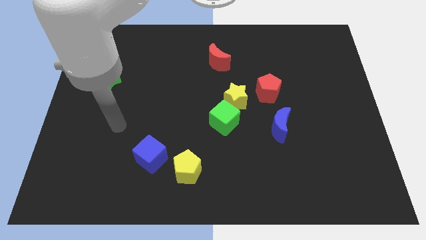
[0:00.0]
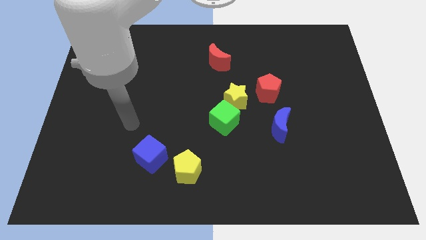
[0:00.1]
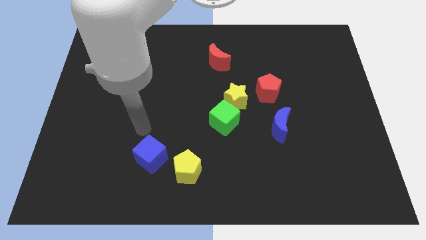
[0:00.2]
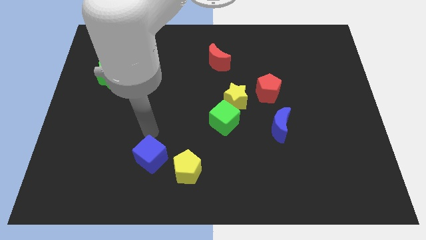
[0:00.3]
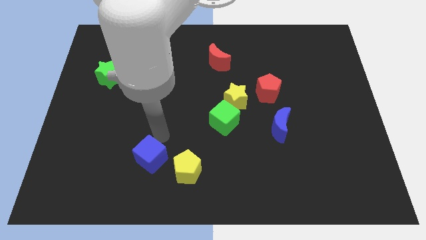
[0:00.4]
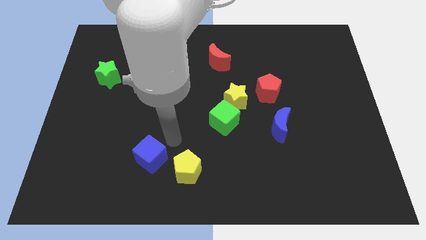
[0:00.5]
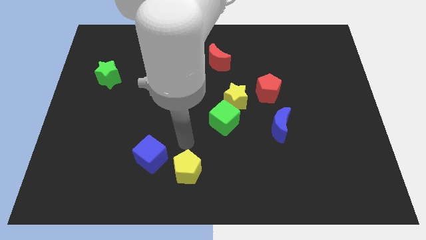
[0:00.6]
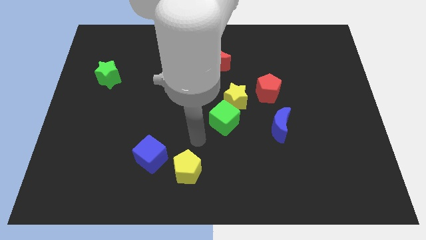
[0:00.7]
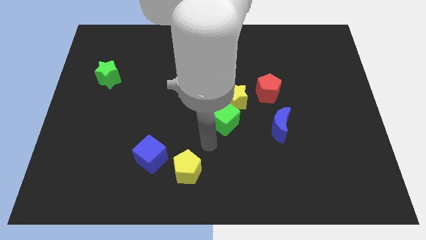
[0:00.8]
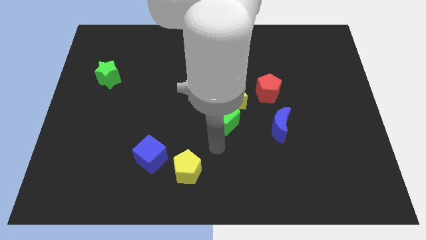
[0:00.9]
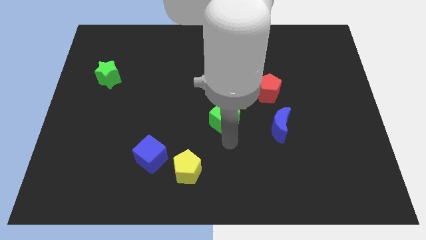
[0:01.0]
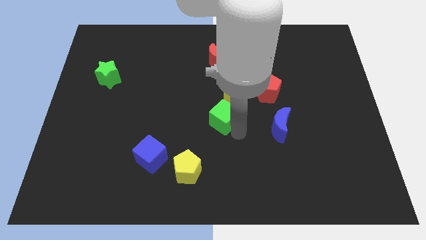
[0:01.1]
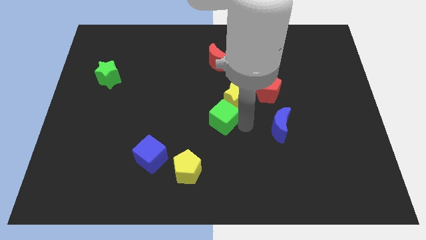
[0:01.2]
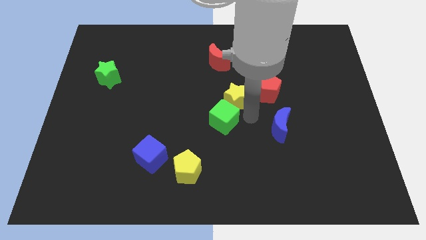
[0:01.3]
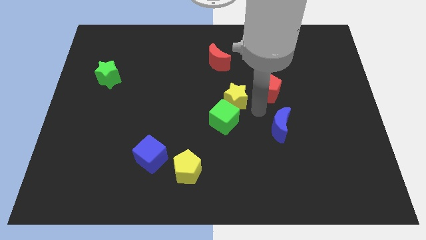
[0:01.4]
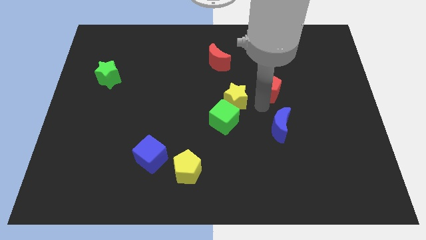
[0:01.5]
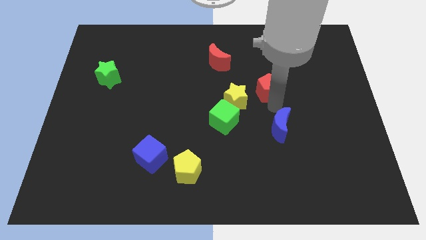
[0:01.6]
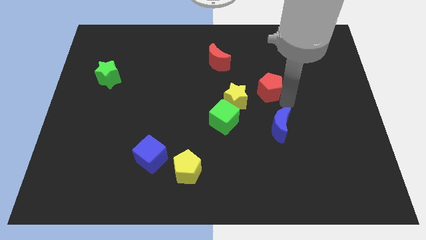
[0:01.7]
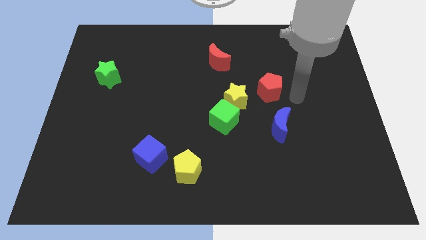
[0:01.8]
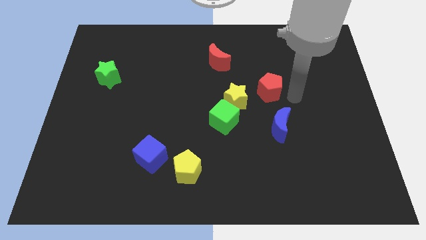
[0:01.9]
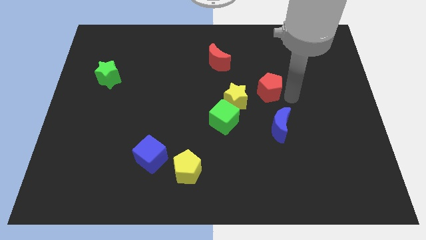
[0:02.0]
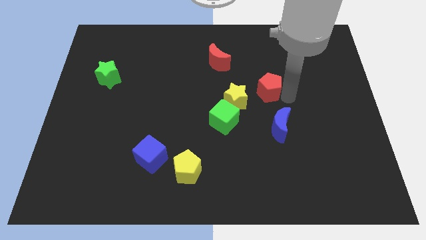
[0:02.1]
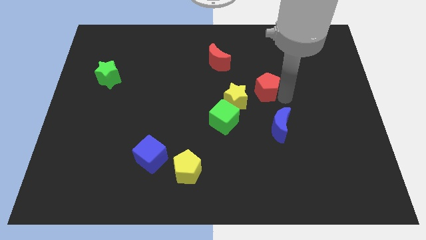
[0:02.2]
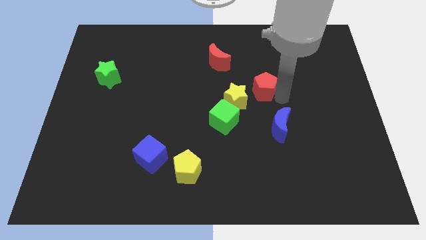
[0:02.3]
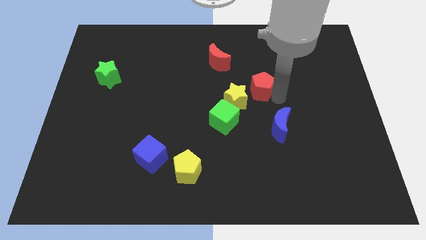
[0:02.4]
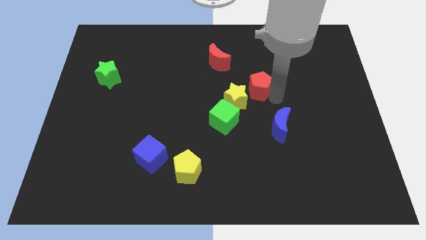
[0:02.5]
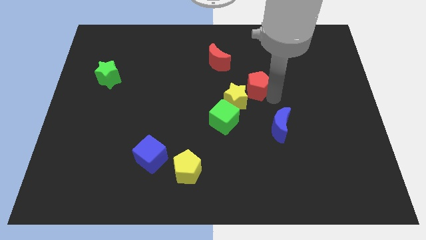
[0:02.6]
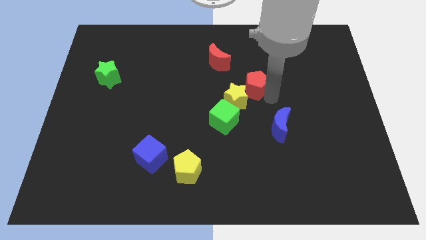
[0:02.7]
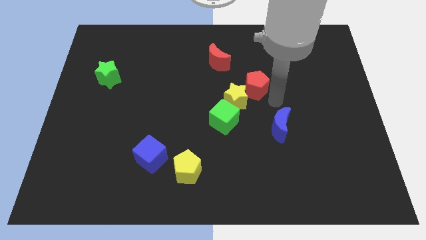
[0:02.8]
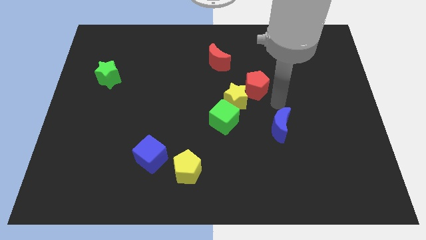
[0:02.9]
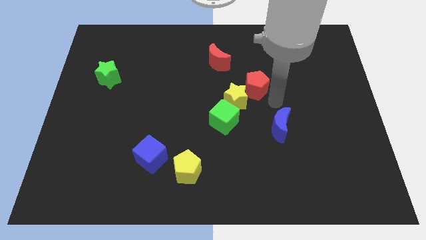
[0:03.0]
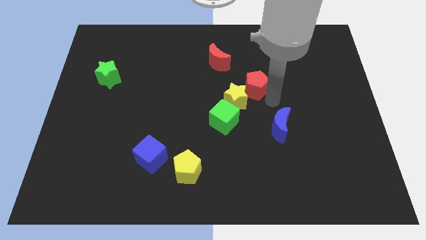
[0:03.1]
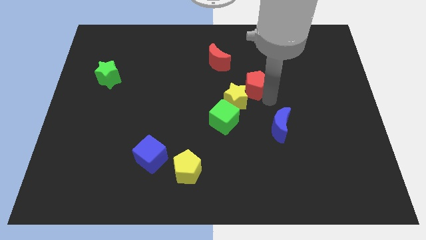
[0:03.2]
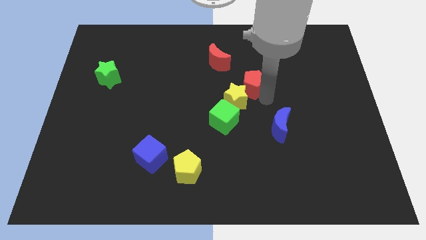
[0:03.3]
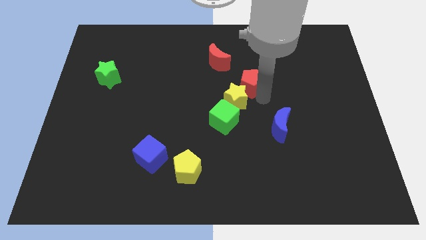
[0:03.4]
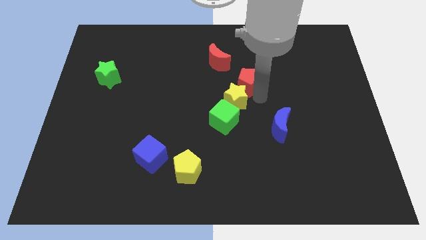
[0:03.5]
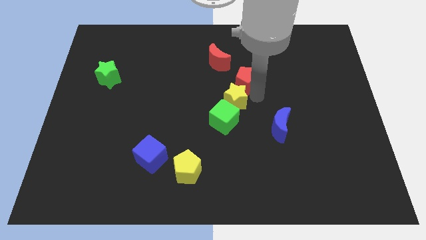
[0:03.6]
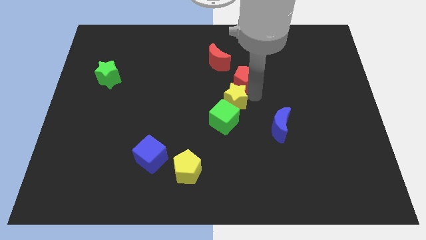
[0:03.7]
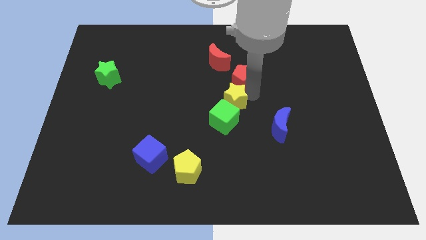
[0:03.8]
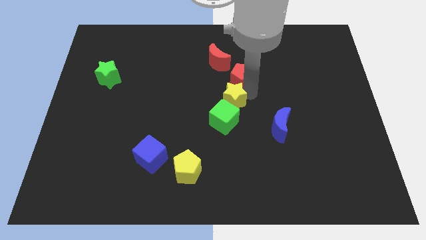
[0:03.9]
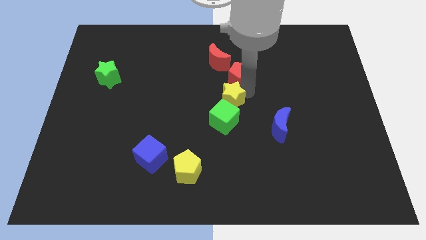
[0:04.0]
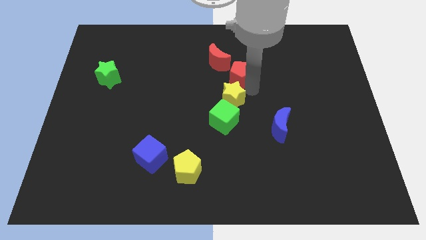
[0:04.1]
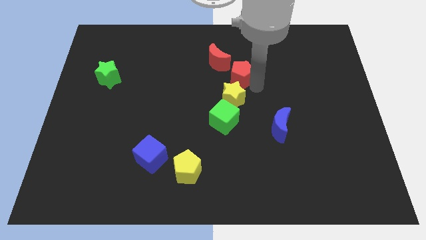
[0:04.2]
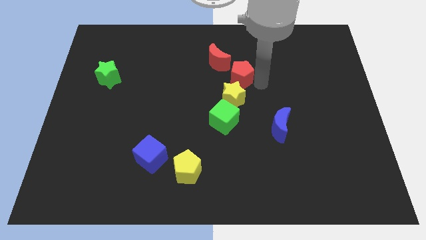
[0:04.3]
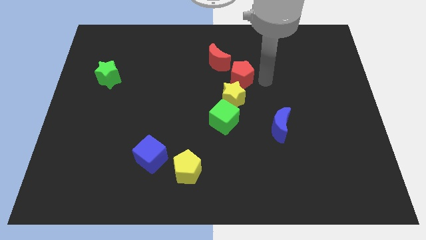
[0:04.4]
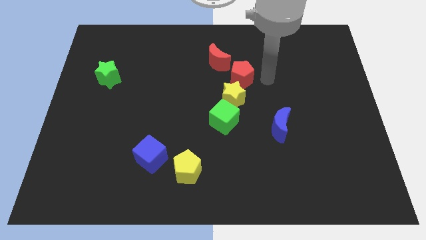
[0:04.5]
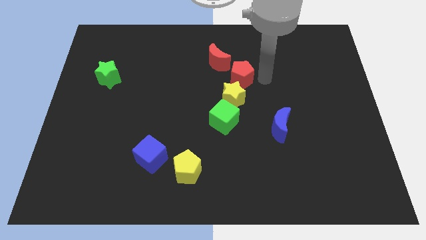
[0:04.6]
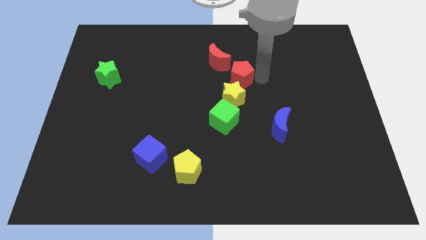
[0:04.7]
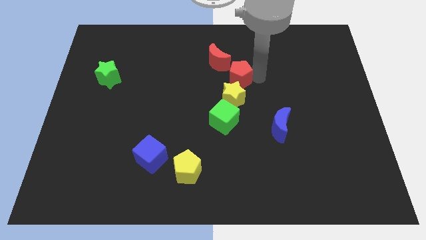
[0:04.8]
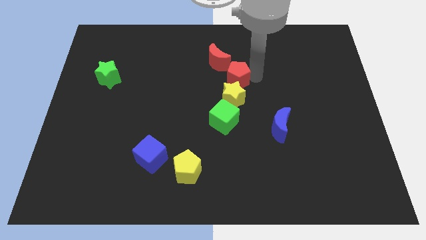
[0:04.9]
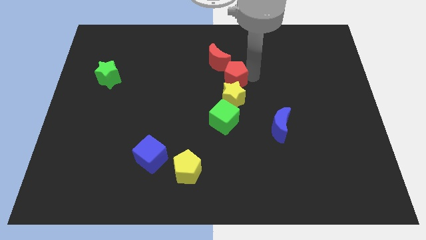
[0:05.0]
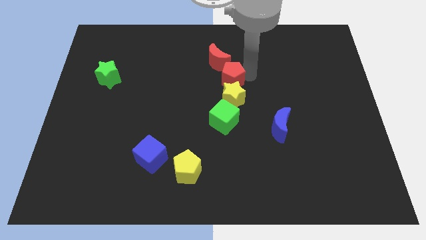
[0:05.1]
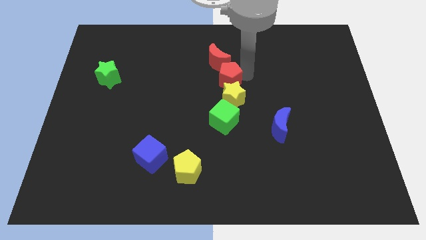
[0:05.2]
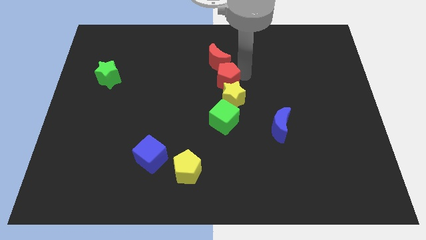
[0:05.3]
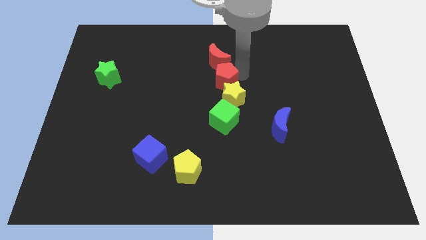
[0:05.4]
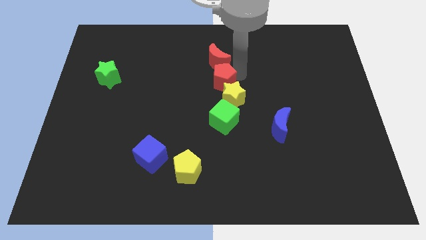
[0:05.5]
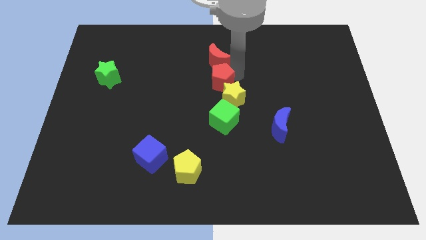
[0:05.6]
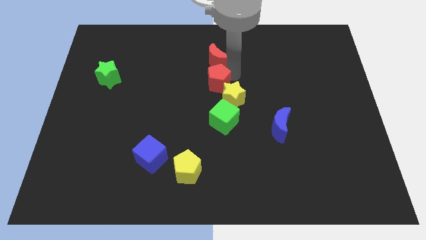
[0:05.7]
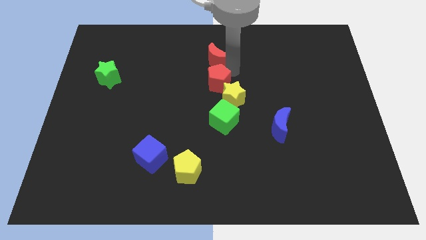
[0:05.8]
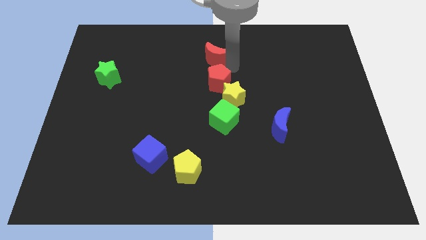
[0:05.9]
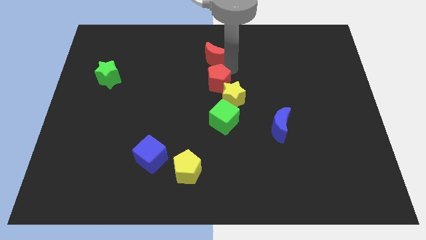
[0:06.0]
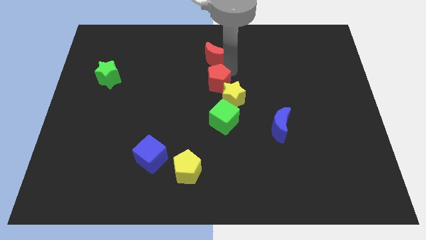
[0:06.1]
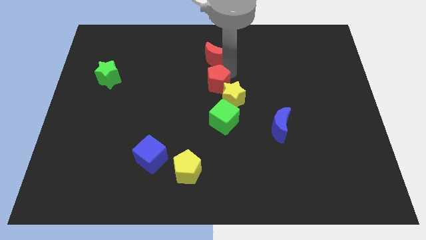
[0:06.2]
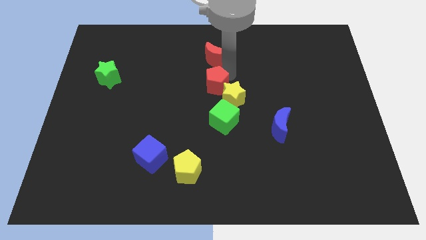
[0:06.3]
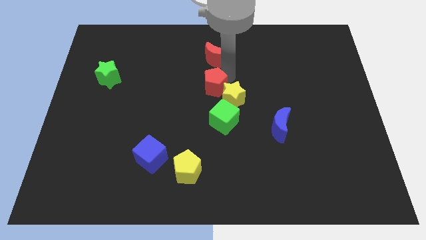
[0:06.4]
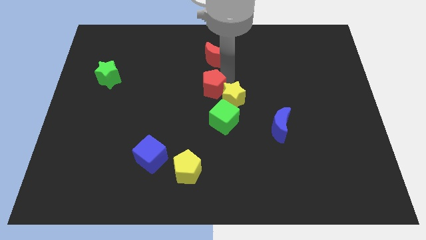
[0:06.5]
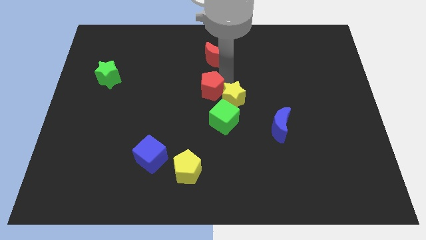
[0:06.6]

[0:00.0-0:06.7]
move the red pentagon to the top left side of the green cube
